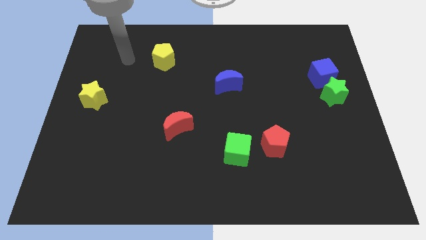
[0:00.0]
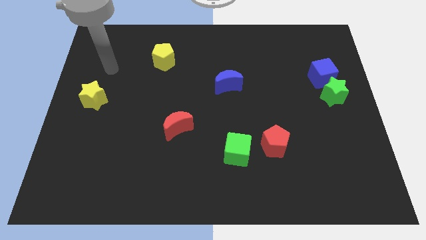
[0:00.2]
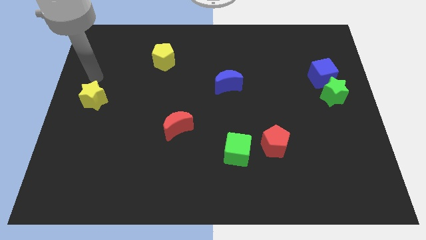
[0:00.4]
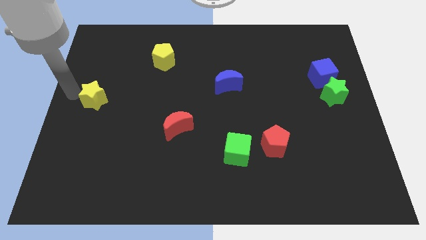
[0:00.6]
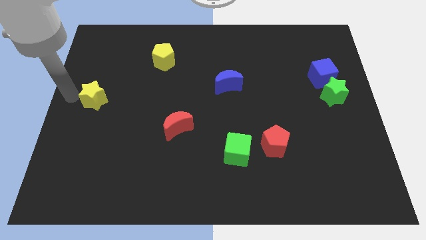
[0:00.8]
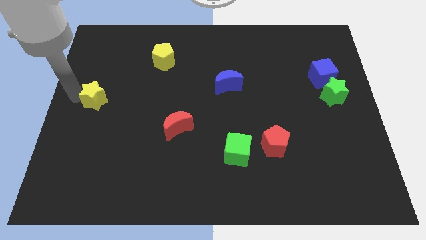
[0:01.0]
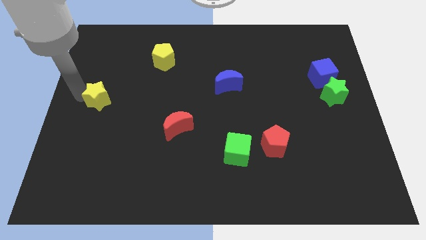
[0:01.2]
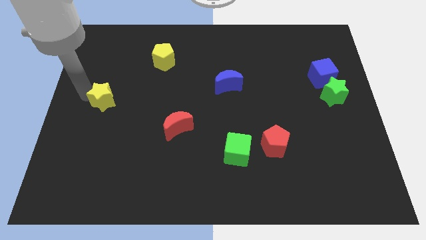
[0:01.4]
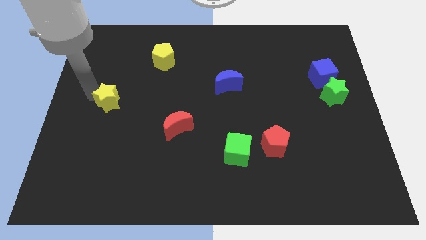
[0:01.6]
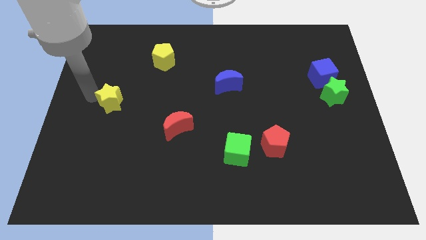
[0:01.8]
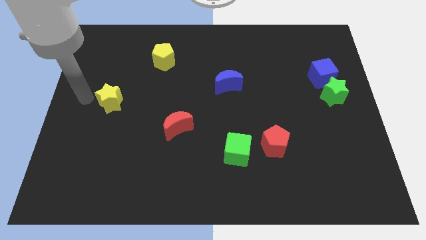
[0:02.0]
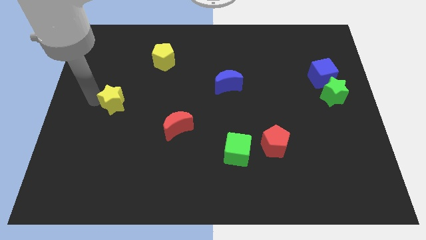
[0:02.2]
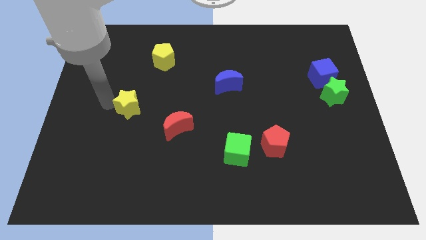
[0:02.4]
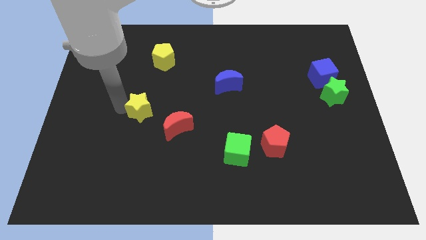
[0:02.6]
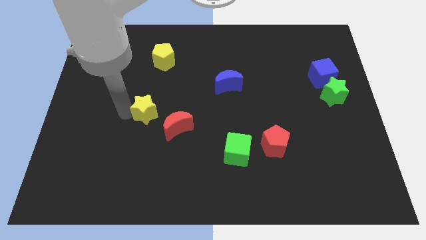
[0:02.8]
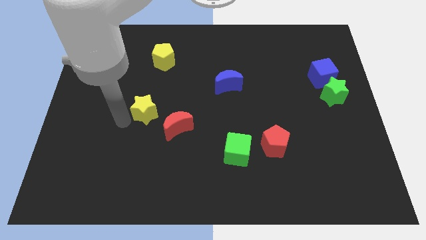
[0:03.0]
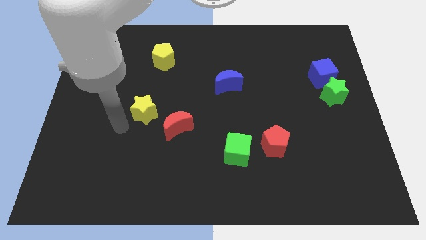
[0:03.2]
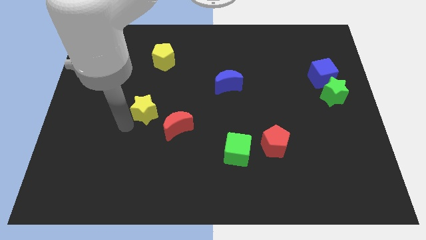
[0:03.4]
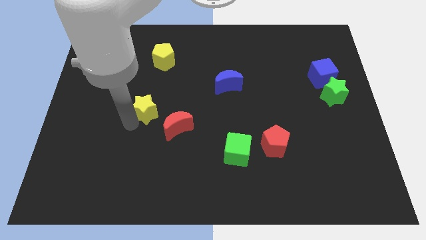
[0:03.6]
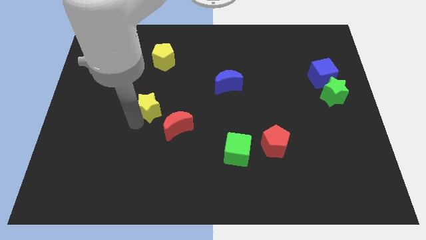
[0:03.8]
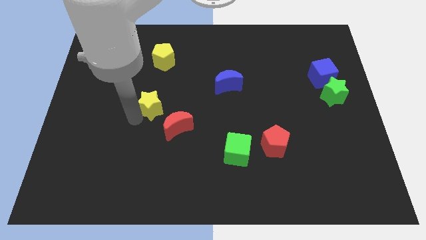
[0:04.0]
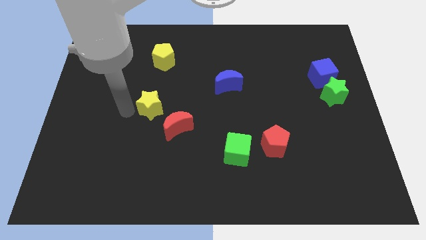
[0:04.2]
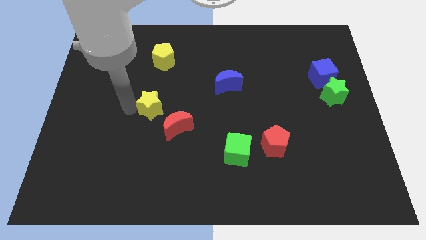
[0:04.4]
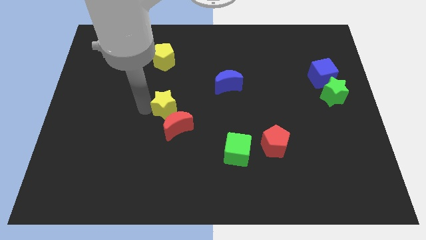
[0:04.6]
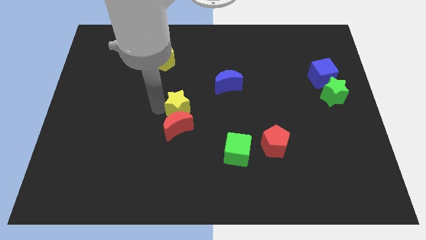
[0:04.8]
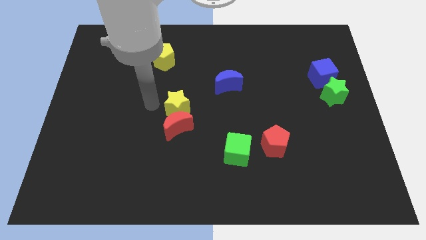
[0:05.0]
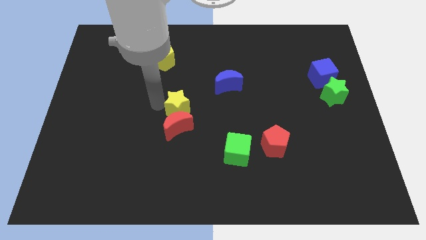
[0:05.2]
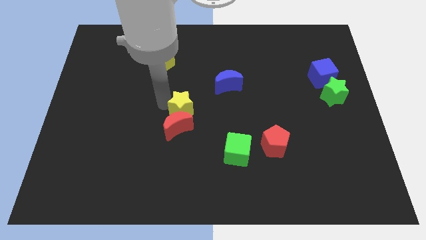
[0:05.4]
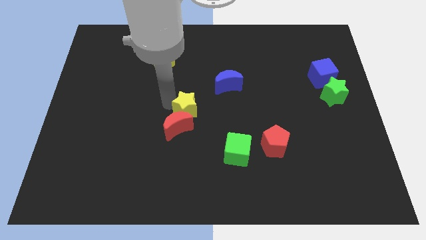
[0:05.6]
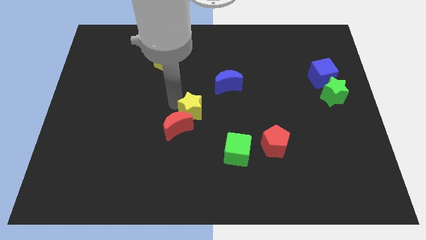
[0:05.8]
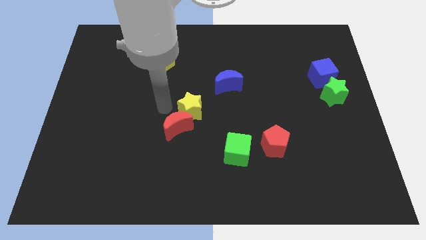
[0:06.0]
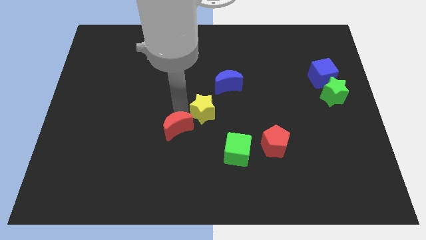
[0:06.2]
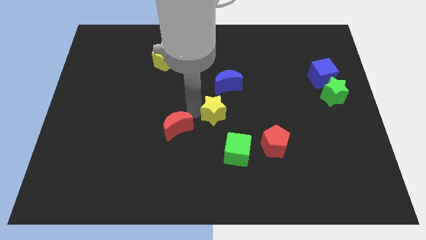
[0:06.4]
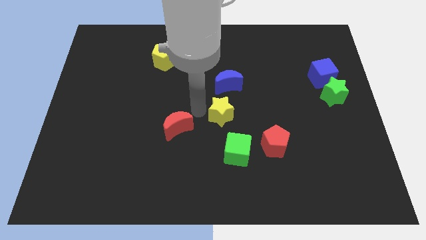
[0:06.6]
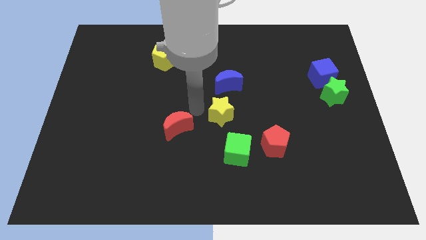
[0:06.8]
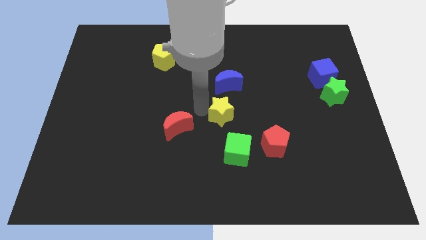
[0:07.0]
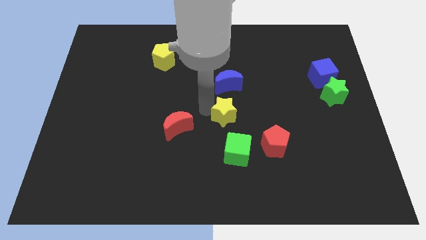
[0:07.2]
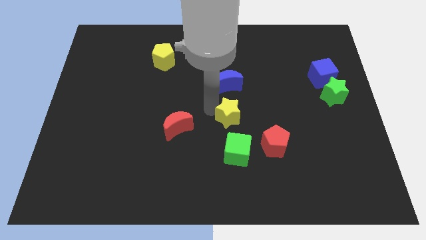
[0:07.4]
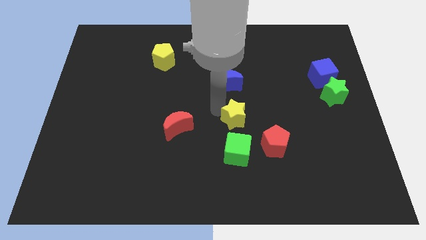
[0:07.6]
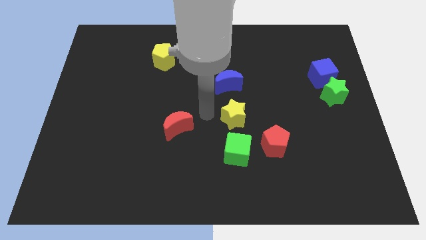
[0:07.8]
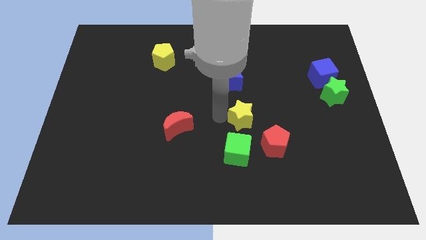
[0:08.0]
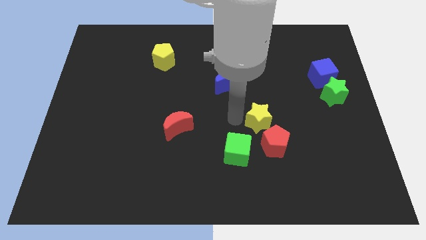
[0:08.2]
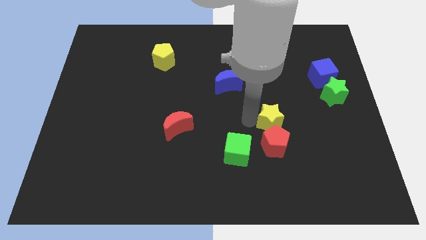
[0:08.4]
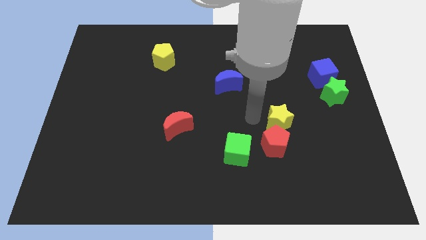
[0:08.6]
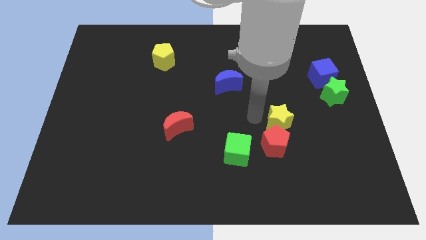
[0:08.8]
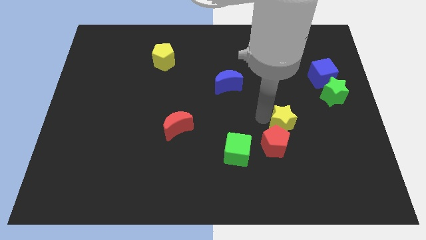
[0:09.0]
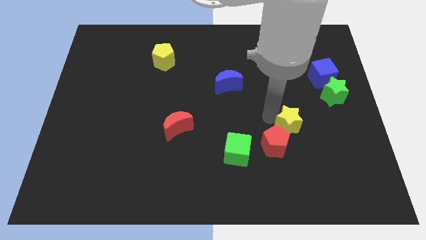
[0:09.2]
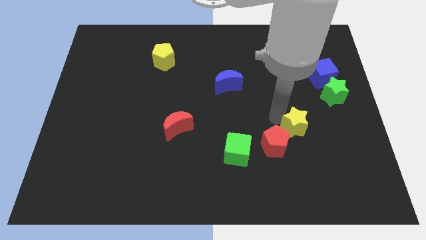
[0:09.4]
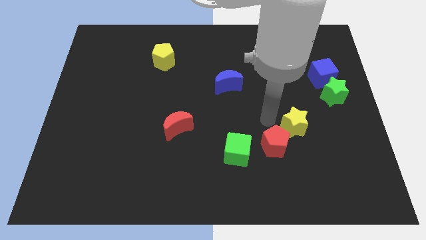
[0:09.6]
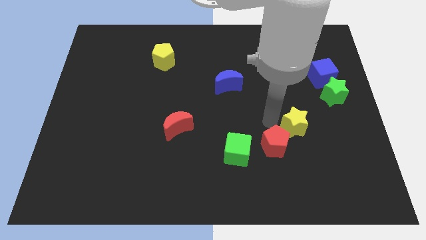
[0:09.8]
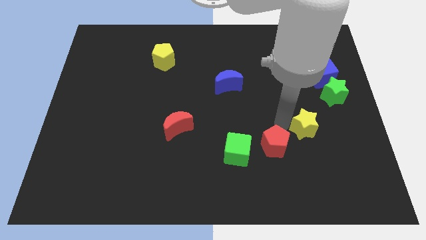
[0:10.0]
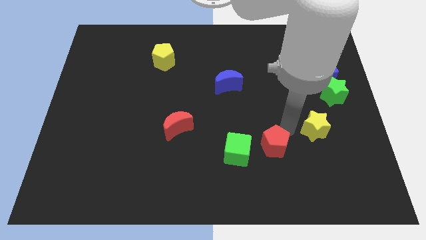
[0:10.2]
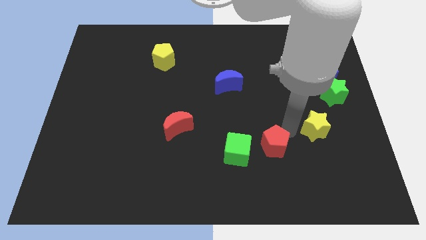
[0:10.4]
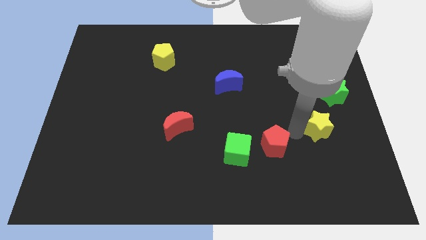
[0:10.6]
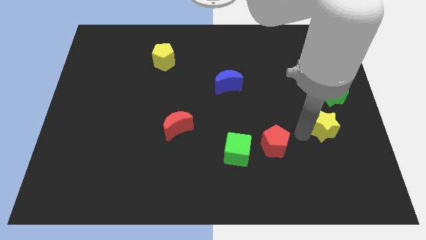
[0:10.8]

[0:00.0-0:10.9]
slide the yellow star below the green star

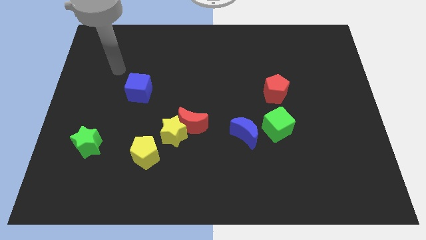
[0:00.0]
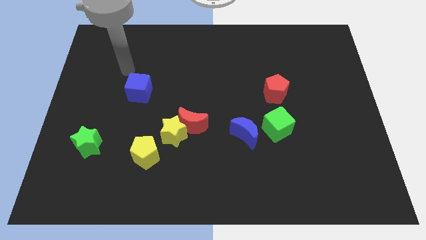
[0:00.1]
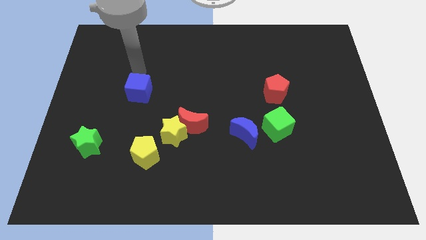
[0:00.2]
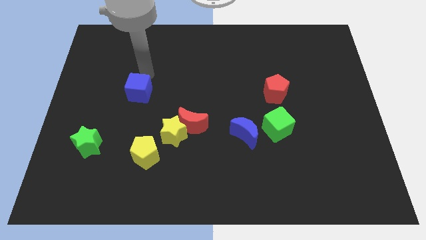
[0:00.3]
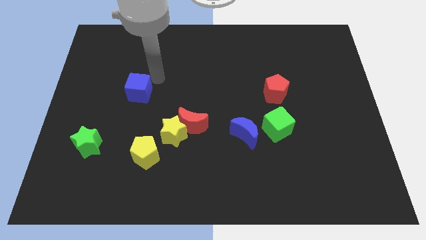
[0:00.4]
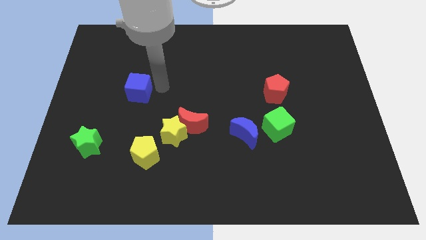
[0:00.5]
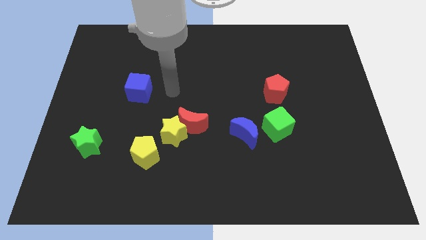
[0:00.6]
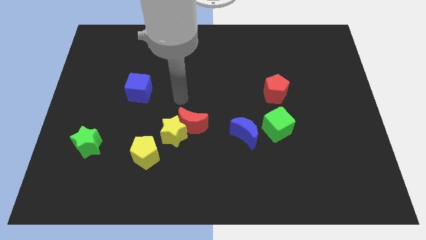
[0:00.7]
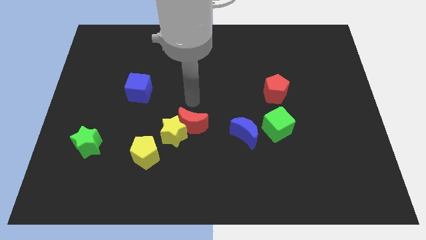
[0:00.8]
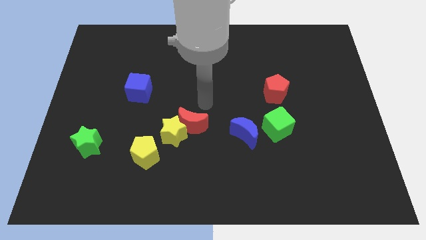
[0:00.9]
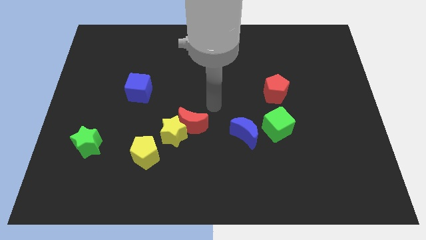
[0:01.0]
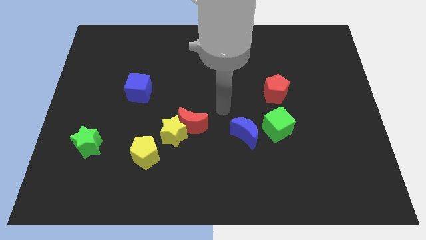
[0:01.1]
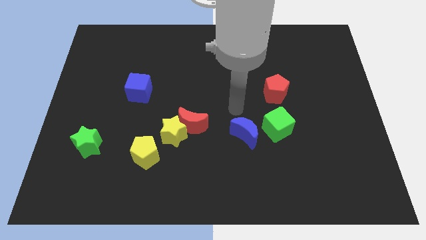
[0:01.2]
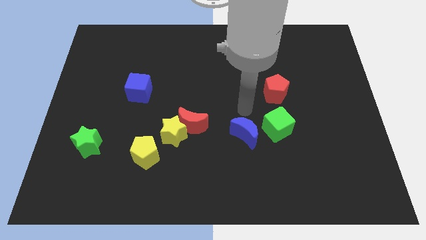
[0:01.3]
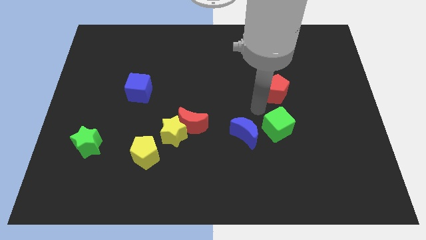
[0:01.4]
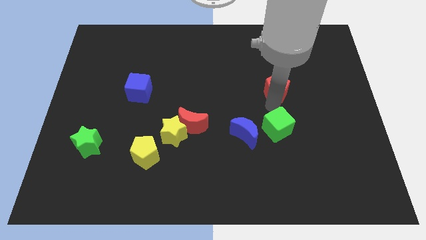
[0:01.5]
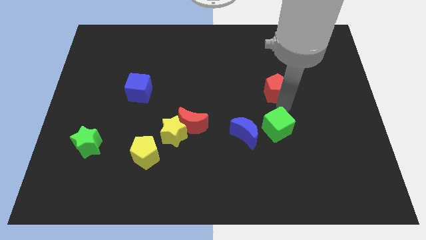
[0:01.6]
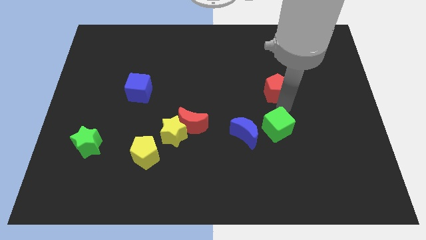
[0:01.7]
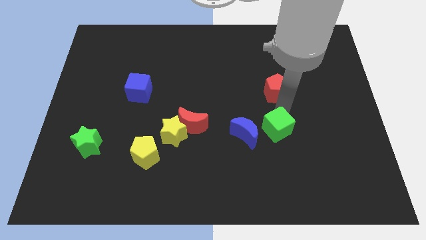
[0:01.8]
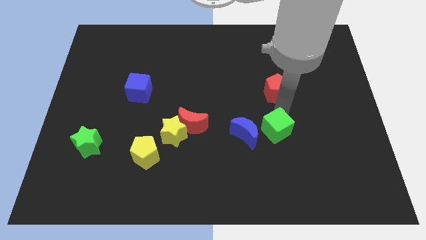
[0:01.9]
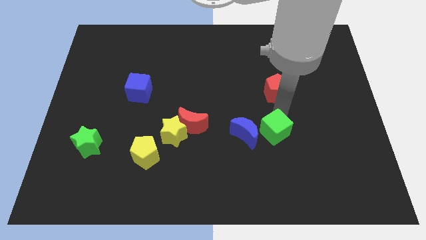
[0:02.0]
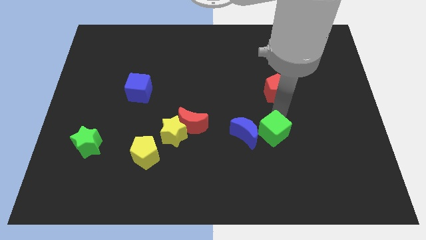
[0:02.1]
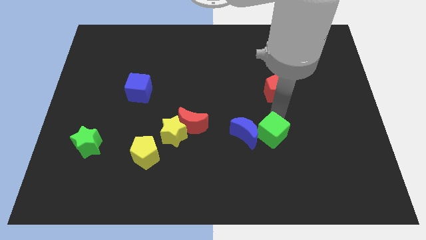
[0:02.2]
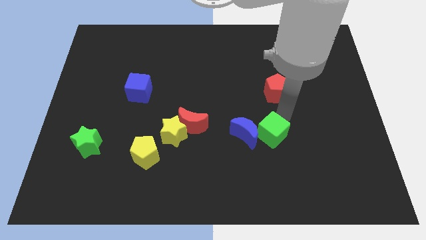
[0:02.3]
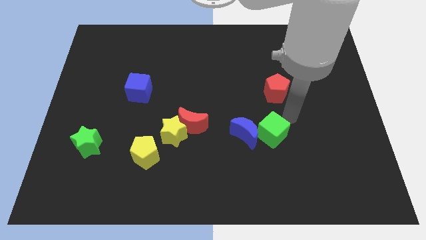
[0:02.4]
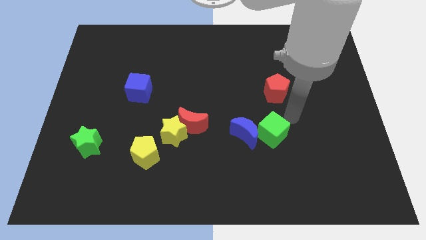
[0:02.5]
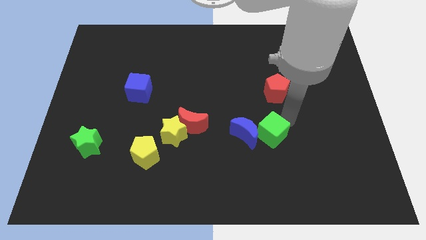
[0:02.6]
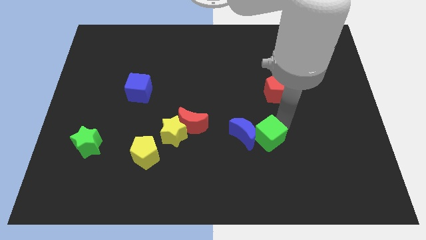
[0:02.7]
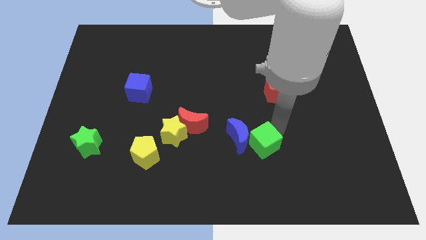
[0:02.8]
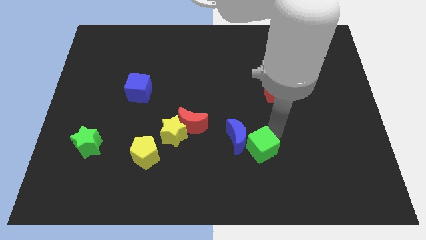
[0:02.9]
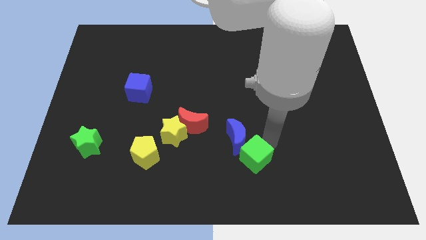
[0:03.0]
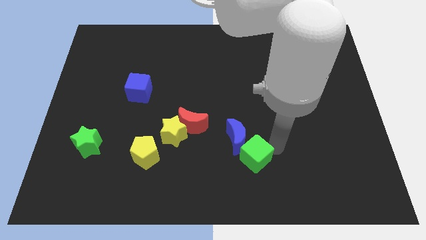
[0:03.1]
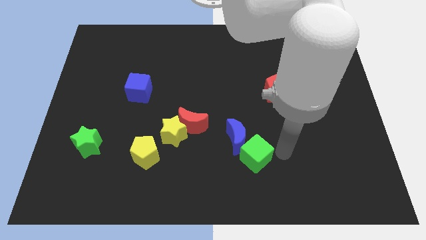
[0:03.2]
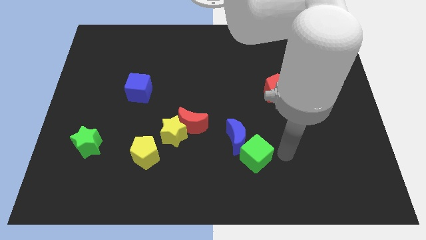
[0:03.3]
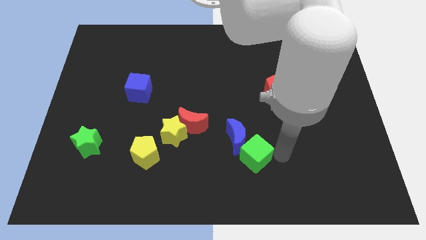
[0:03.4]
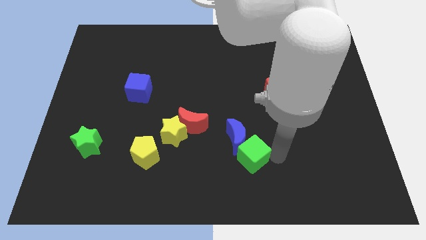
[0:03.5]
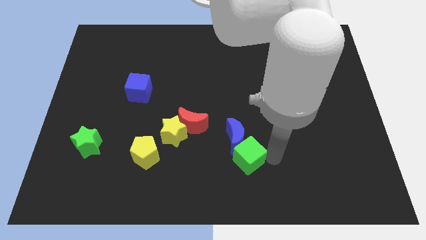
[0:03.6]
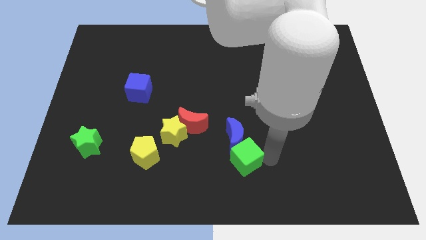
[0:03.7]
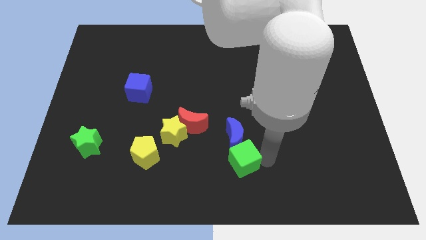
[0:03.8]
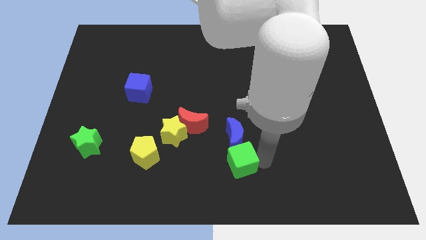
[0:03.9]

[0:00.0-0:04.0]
move the green cube diagonally down and to the left of the blue moon
